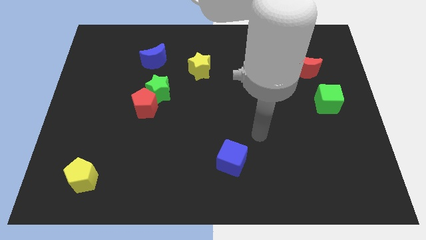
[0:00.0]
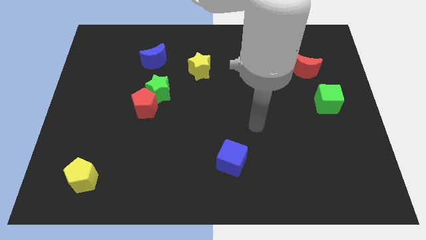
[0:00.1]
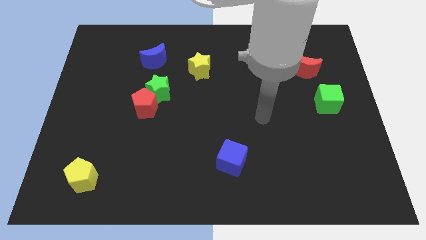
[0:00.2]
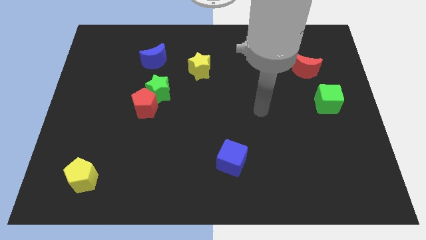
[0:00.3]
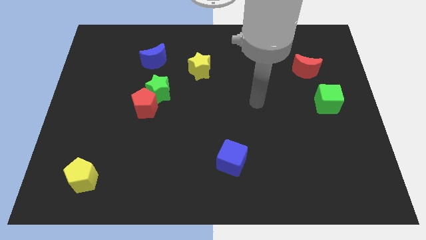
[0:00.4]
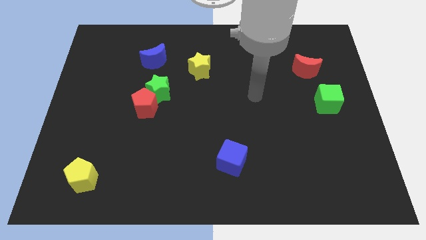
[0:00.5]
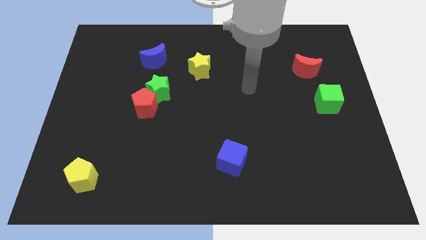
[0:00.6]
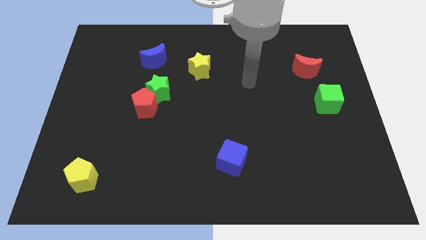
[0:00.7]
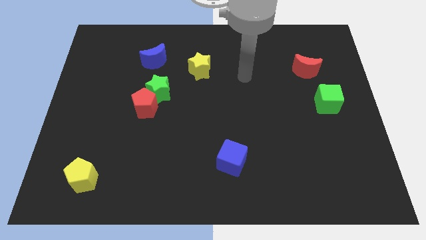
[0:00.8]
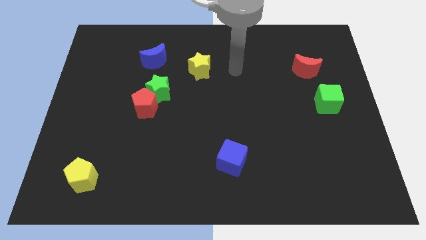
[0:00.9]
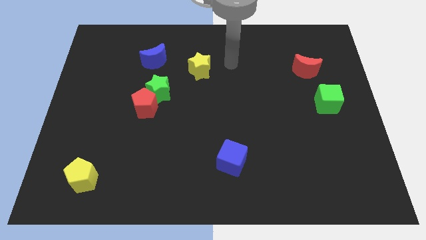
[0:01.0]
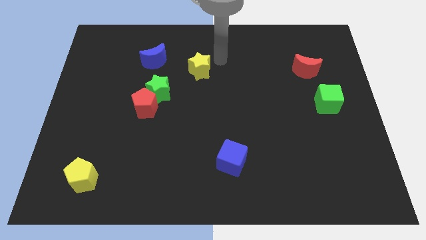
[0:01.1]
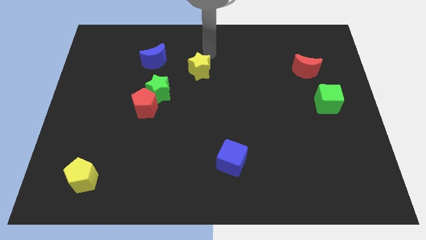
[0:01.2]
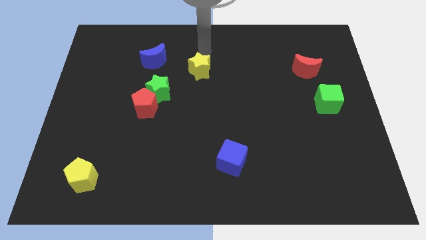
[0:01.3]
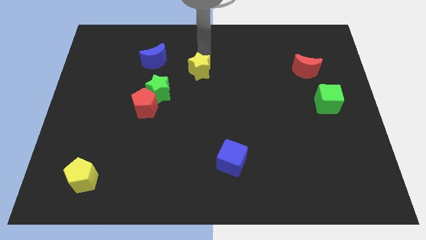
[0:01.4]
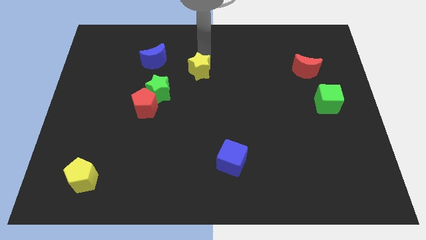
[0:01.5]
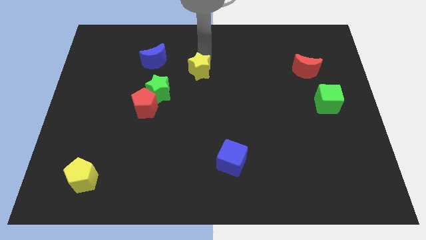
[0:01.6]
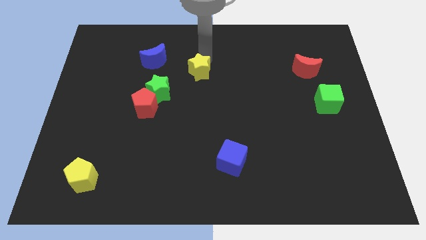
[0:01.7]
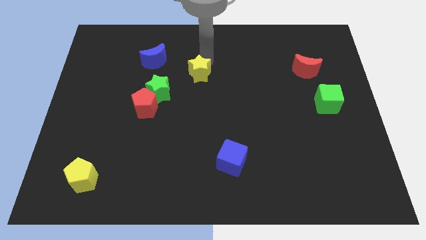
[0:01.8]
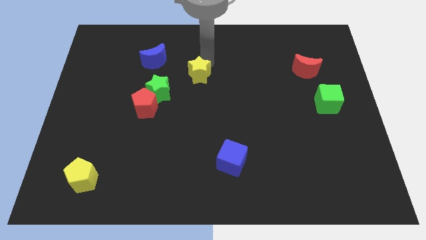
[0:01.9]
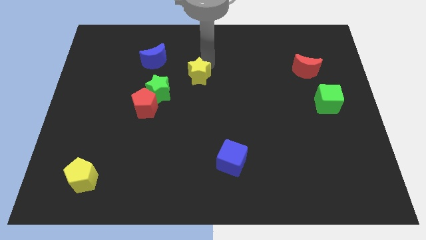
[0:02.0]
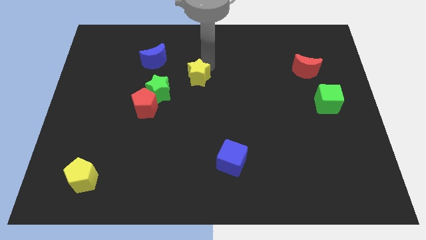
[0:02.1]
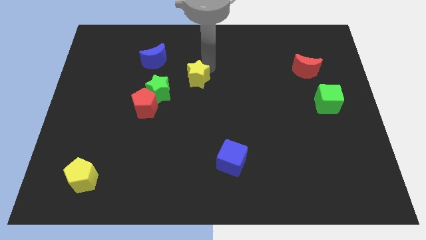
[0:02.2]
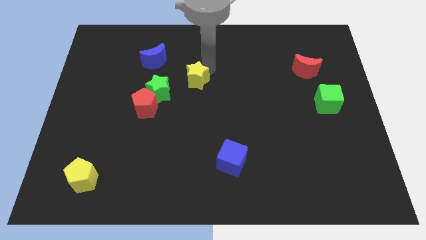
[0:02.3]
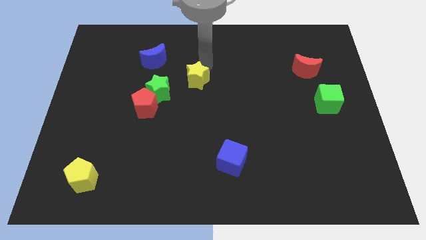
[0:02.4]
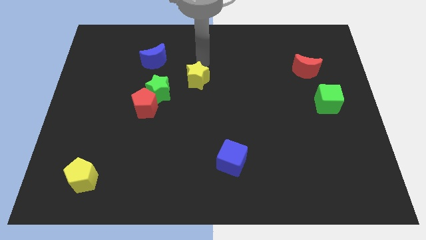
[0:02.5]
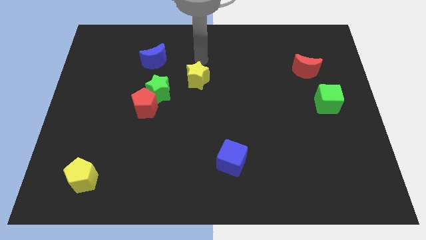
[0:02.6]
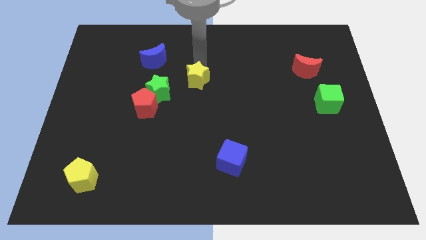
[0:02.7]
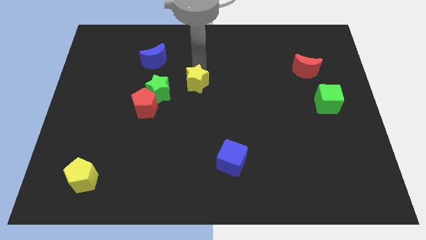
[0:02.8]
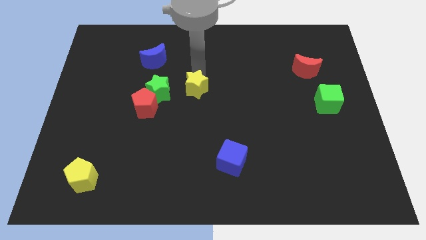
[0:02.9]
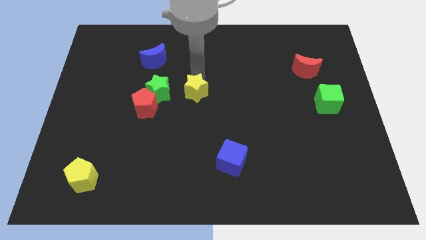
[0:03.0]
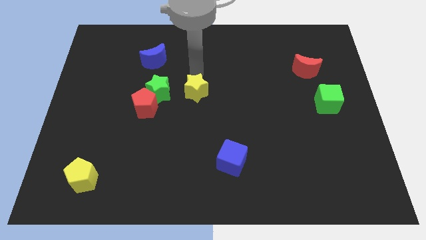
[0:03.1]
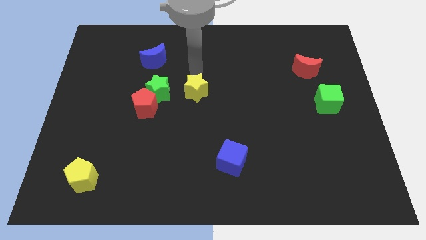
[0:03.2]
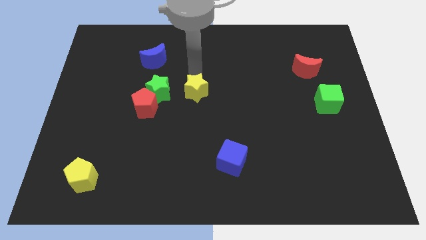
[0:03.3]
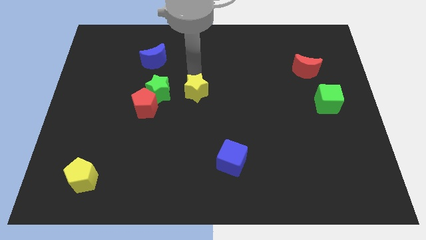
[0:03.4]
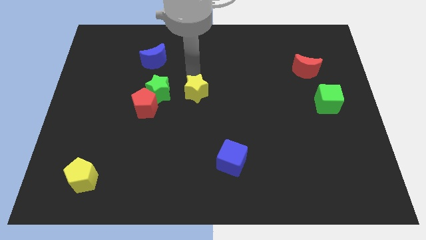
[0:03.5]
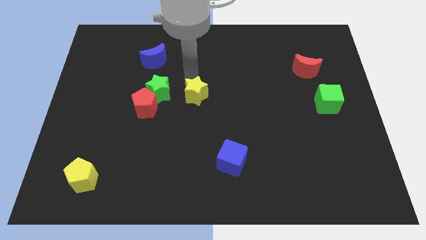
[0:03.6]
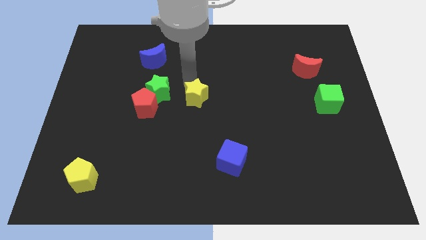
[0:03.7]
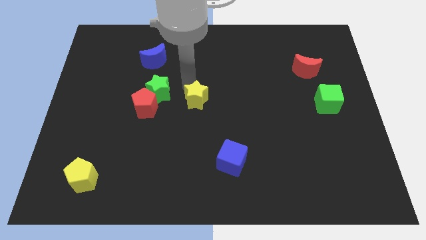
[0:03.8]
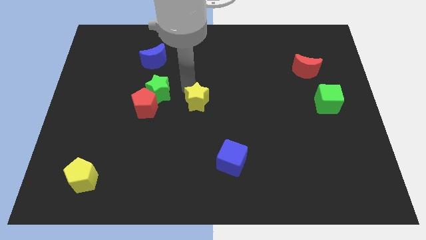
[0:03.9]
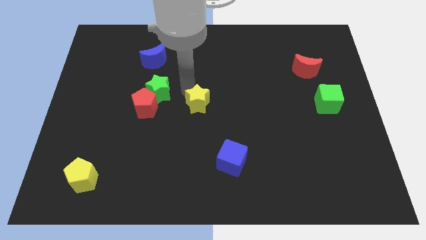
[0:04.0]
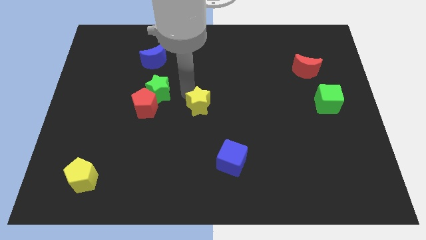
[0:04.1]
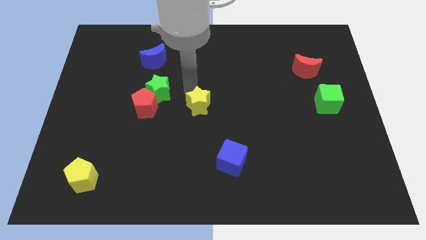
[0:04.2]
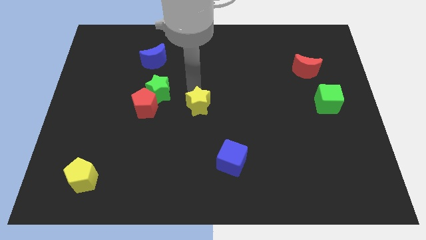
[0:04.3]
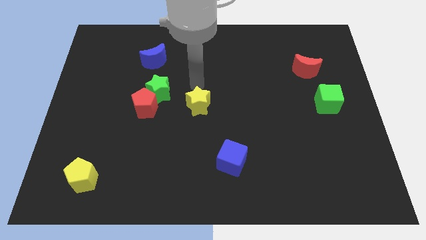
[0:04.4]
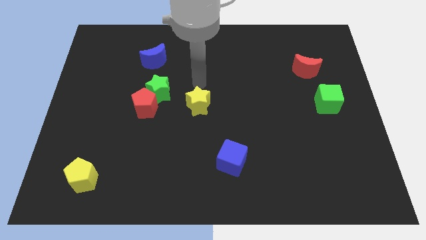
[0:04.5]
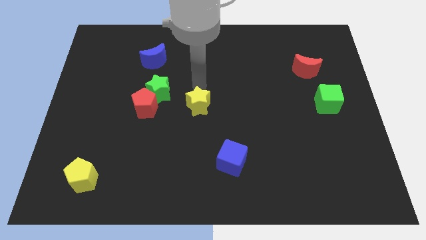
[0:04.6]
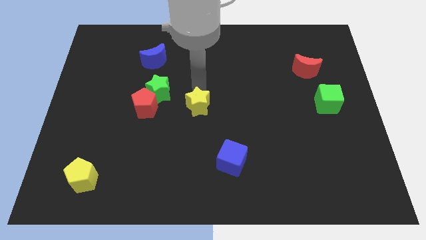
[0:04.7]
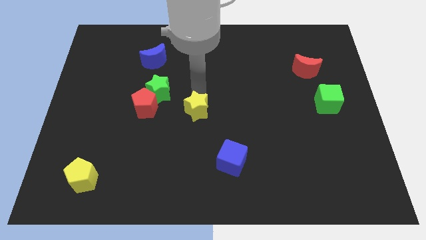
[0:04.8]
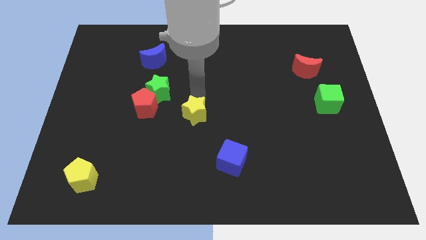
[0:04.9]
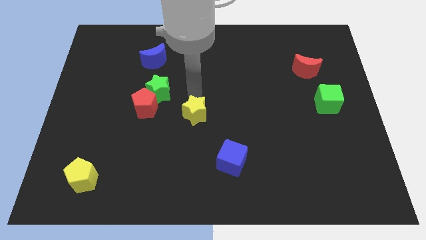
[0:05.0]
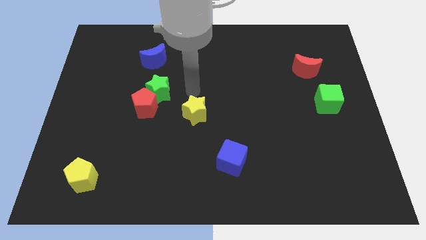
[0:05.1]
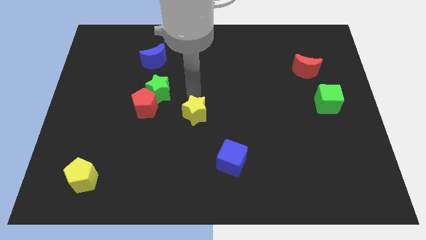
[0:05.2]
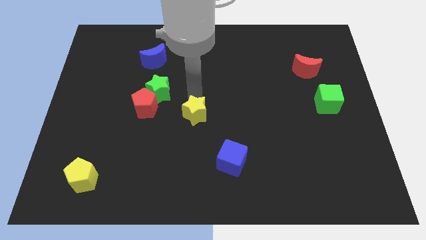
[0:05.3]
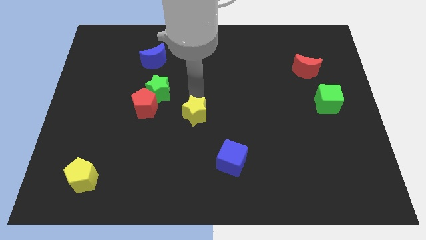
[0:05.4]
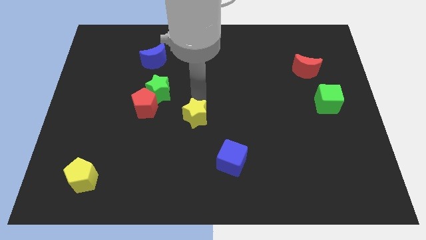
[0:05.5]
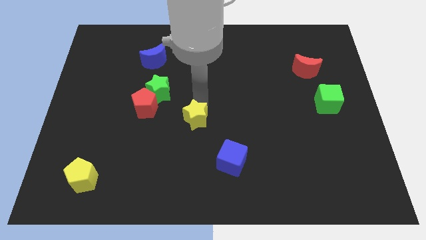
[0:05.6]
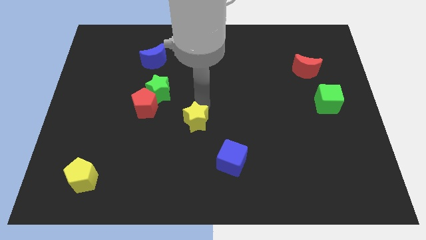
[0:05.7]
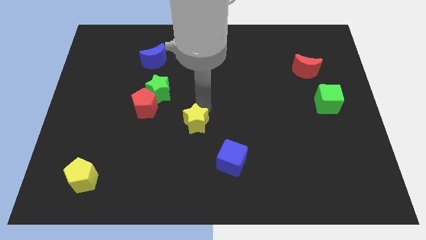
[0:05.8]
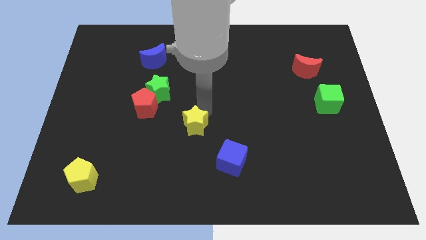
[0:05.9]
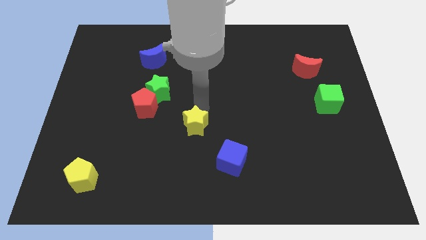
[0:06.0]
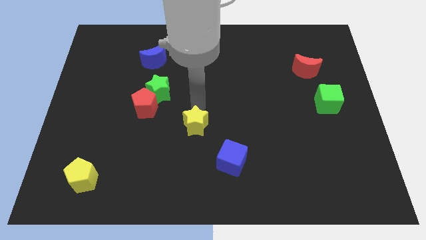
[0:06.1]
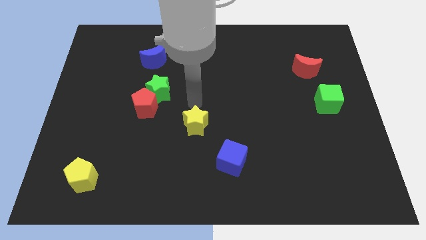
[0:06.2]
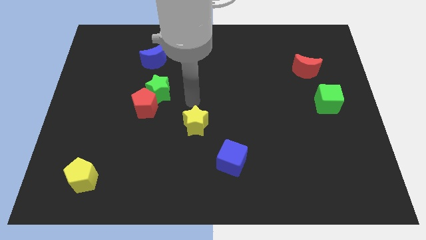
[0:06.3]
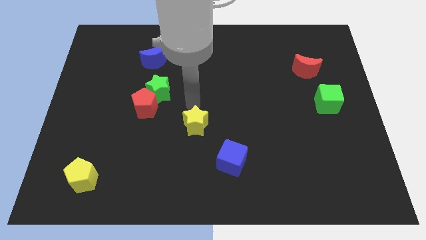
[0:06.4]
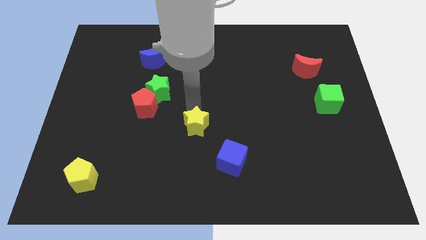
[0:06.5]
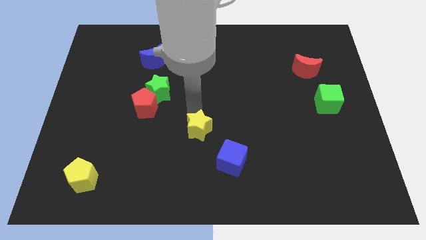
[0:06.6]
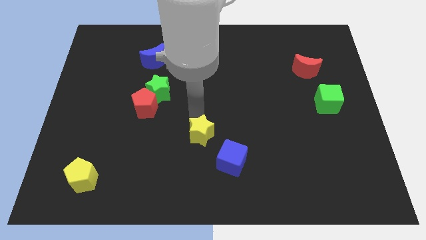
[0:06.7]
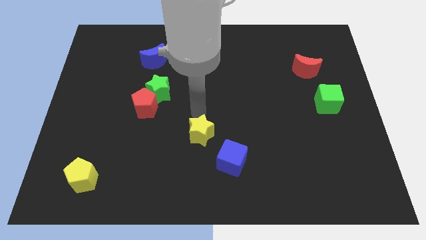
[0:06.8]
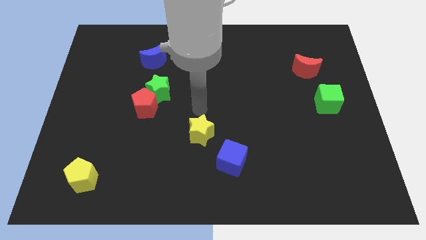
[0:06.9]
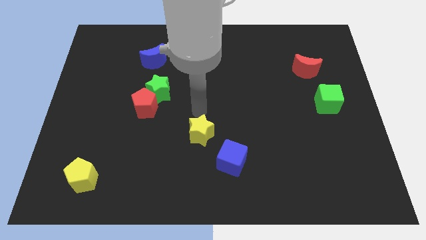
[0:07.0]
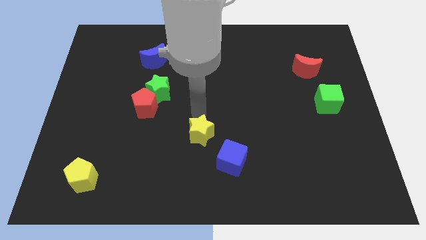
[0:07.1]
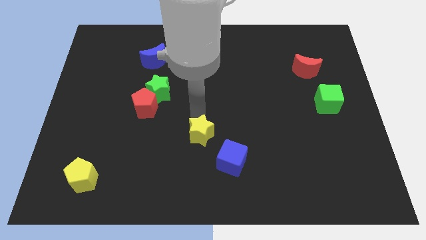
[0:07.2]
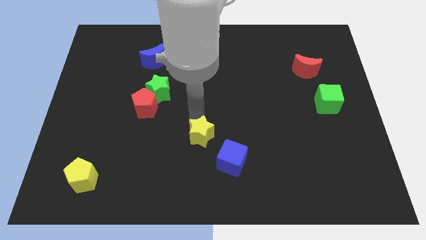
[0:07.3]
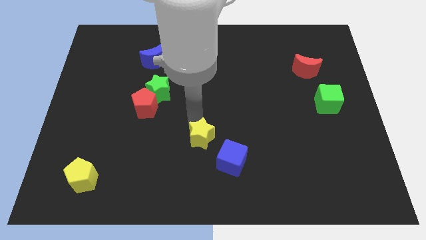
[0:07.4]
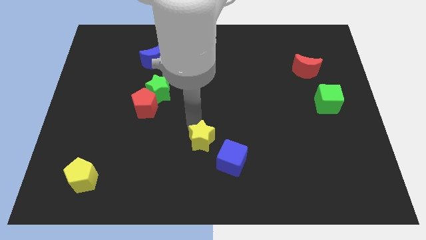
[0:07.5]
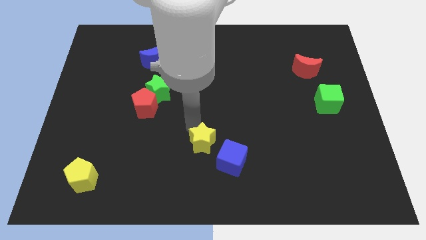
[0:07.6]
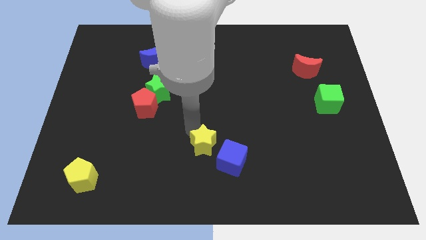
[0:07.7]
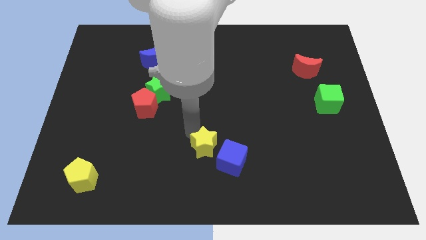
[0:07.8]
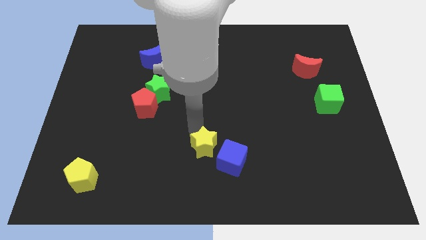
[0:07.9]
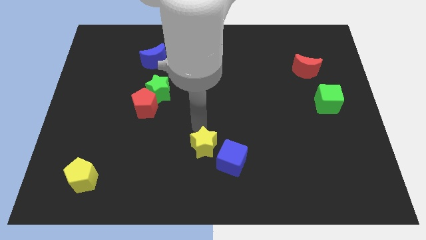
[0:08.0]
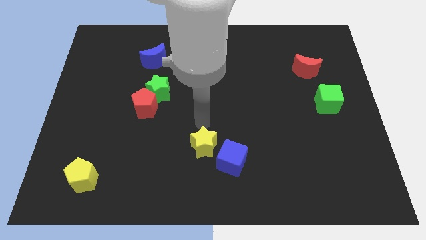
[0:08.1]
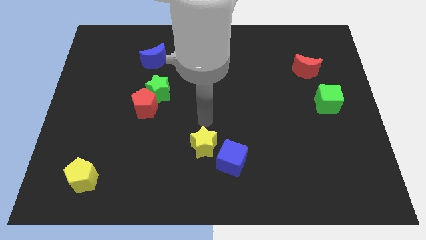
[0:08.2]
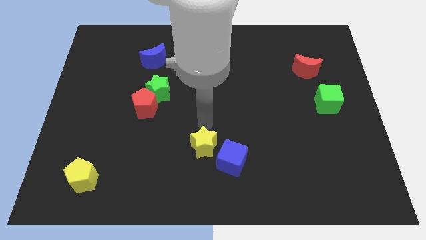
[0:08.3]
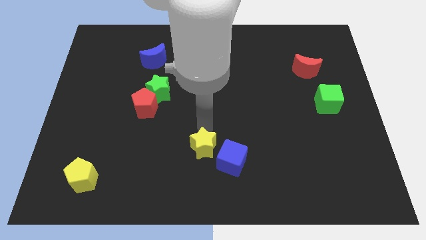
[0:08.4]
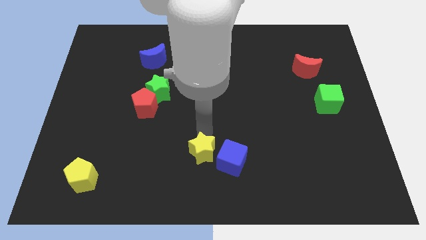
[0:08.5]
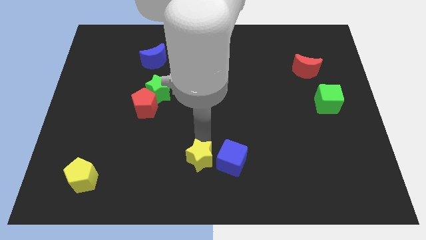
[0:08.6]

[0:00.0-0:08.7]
push the yellow star to the bottom side
